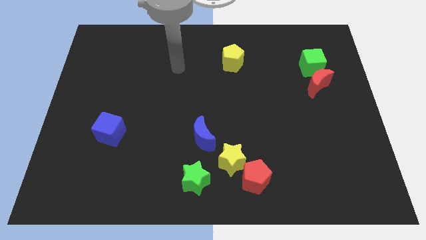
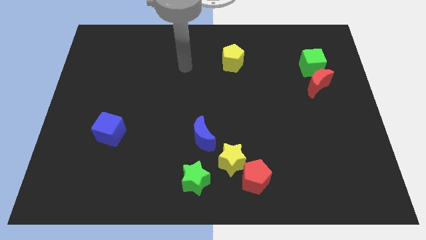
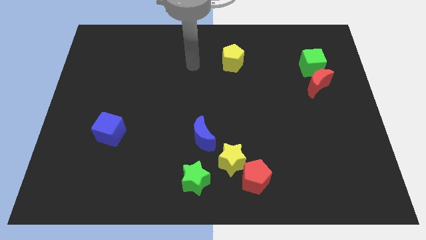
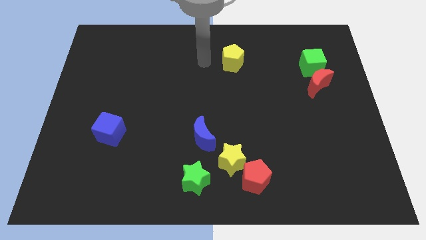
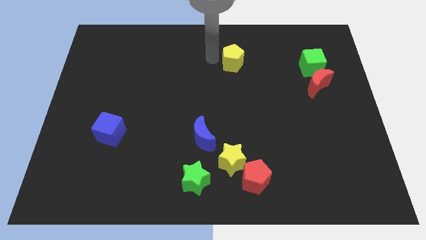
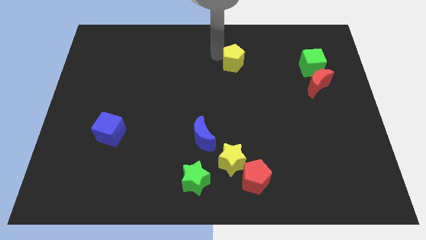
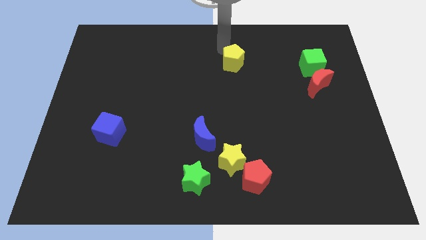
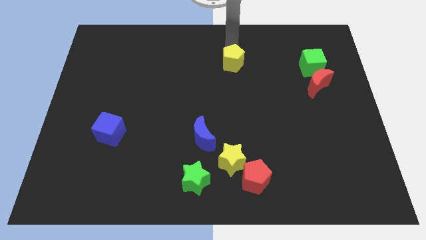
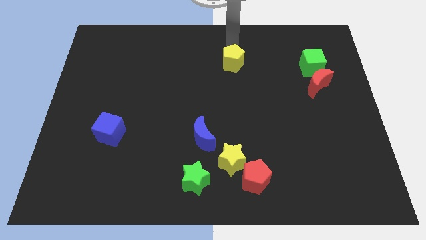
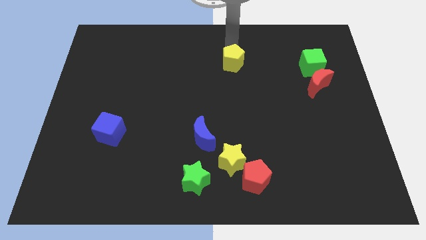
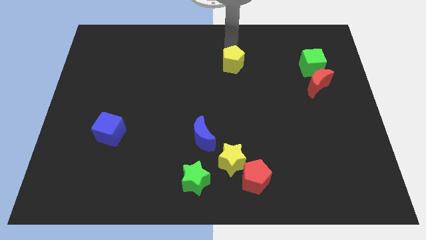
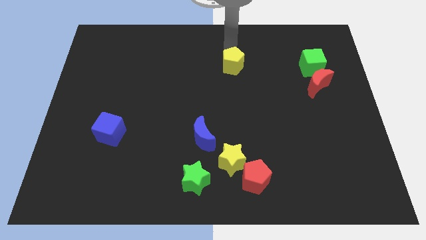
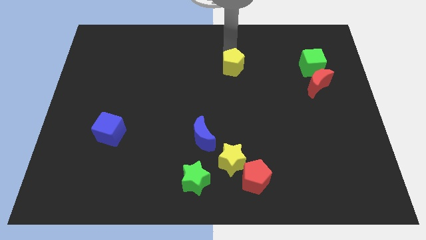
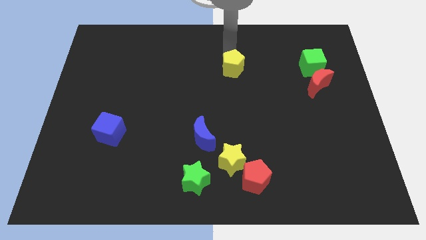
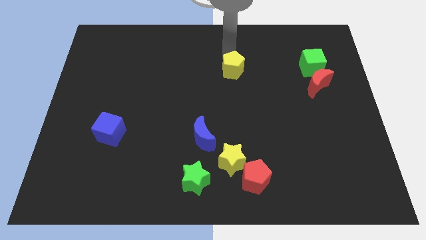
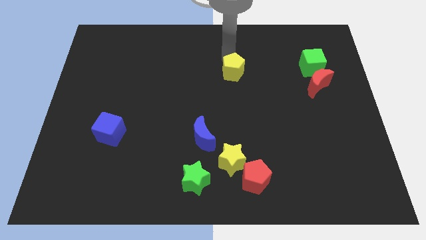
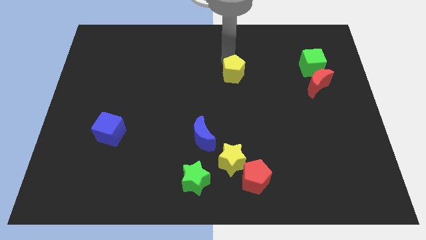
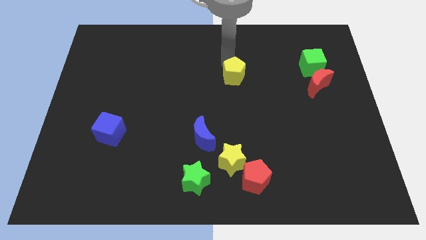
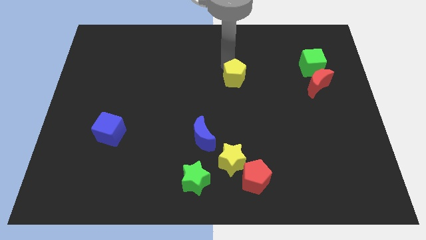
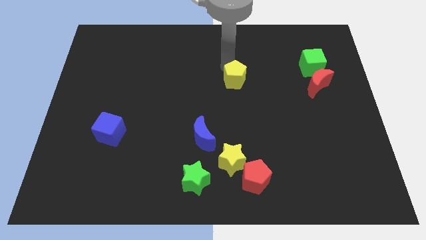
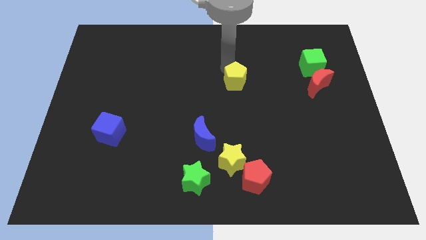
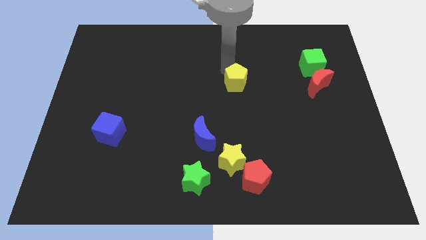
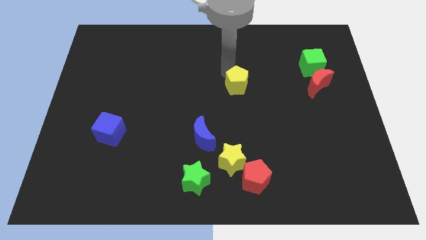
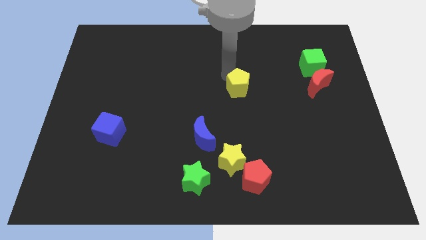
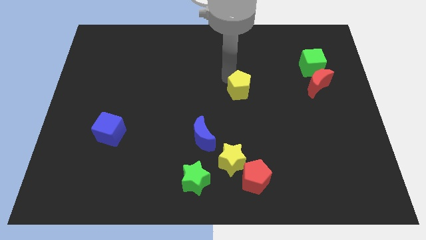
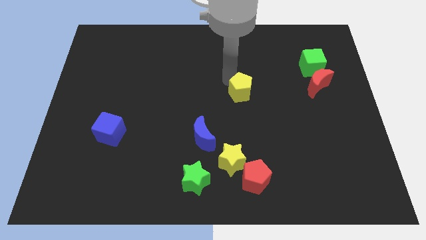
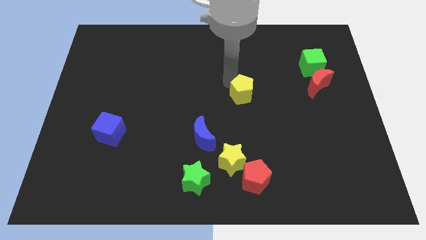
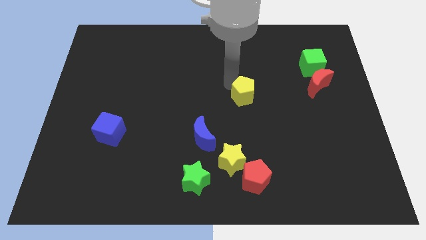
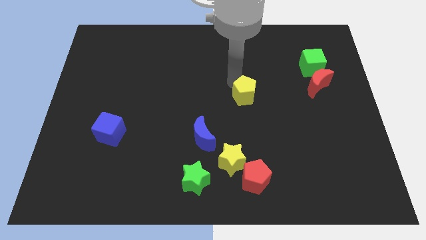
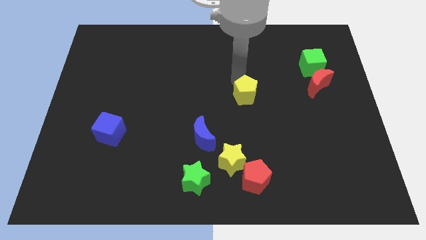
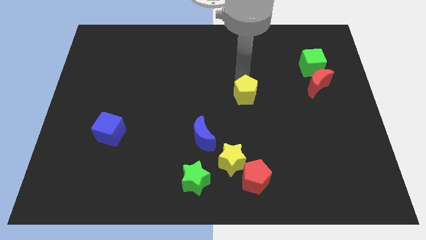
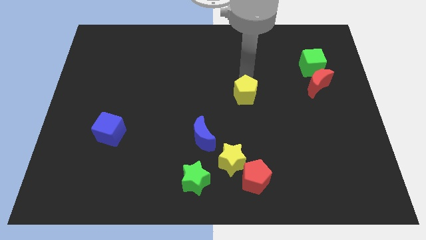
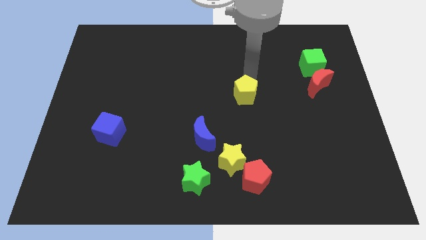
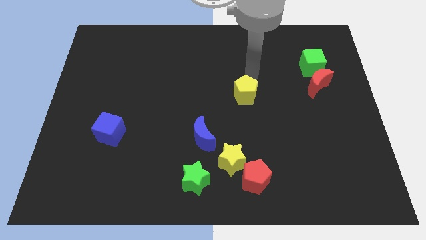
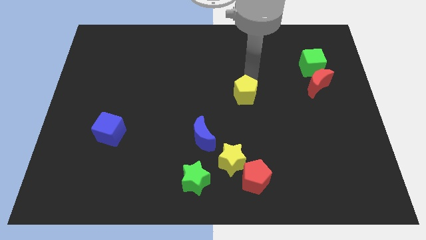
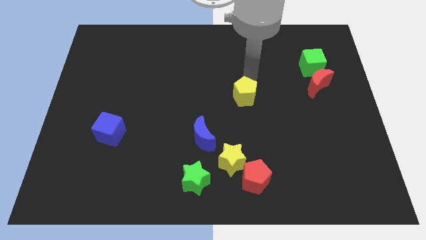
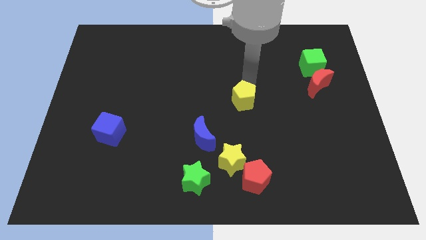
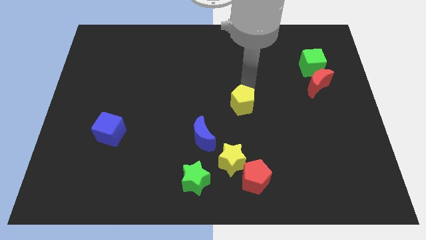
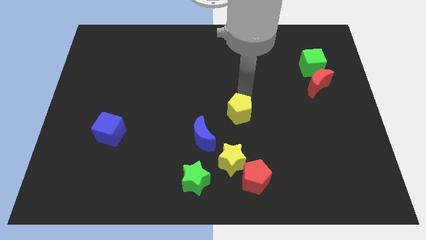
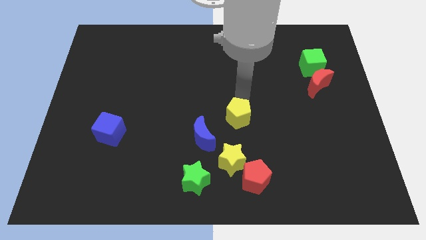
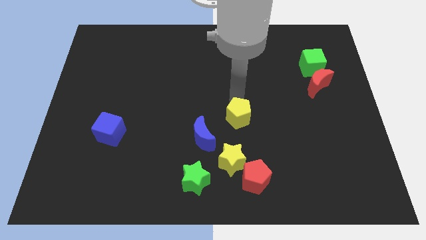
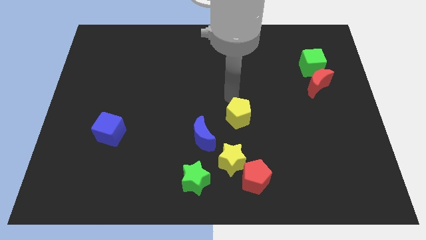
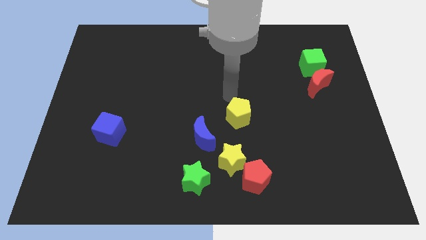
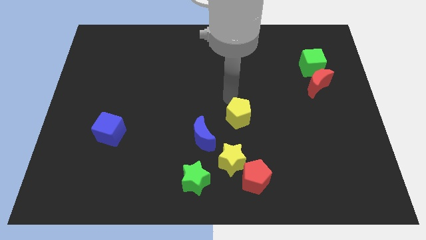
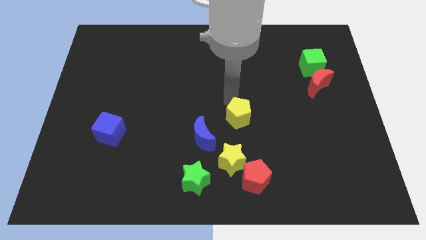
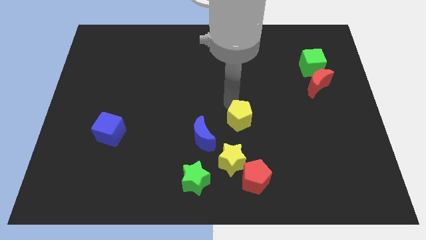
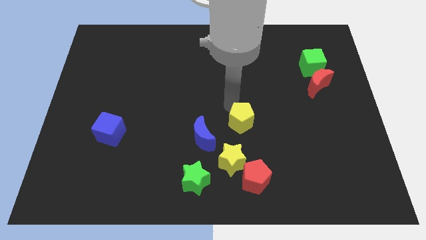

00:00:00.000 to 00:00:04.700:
put the yellow pentagon right of the blue moon

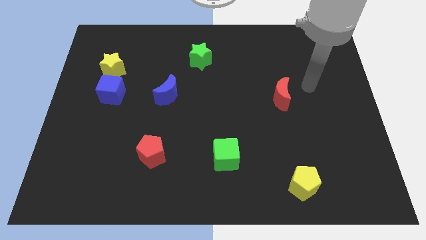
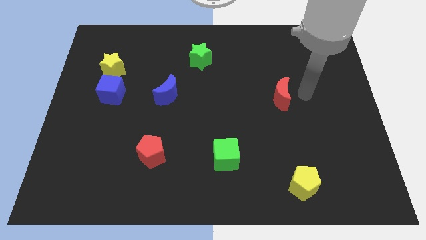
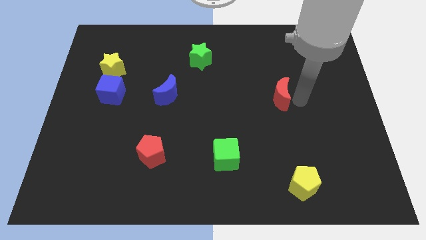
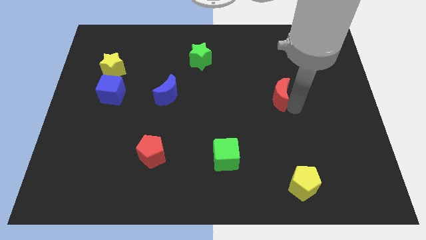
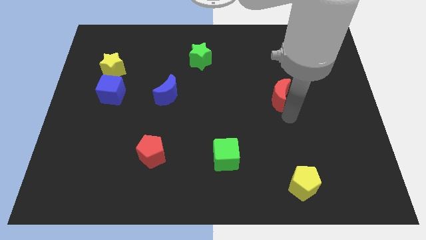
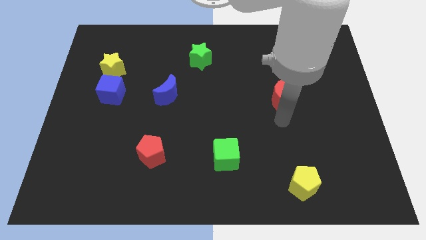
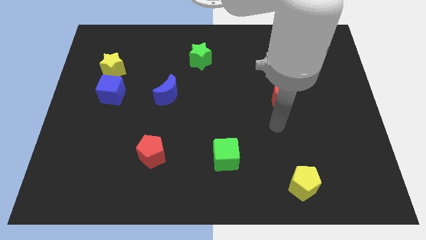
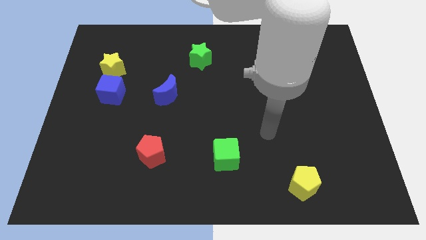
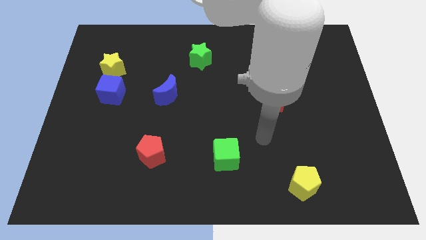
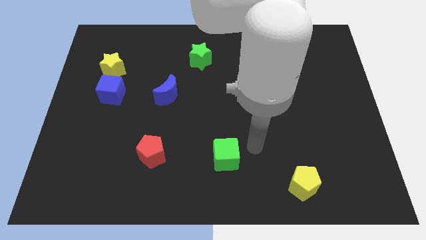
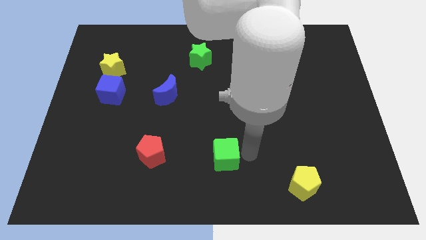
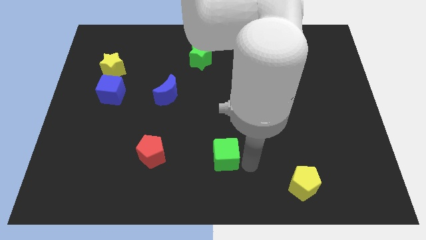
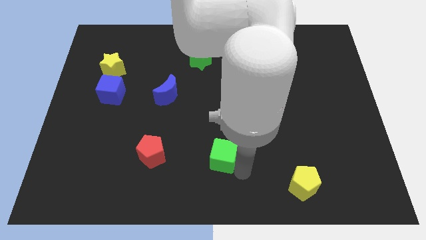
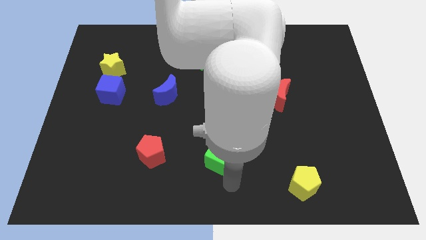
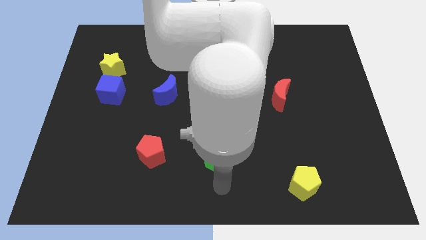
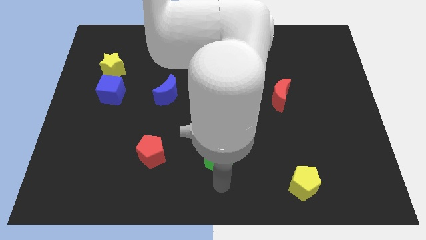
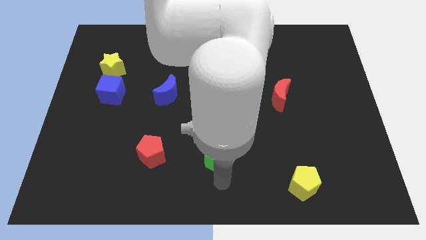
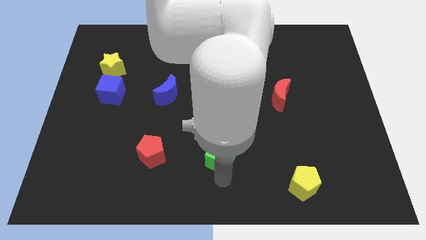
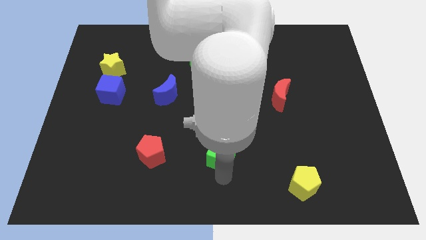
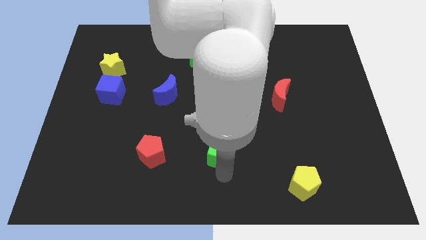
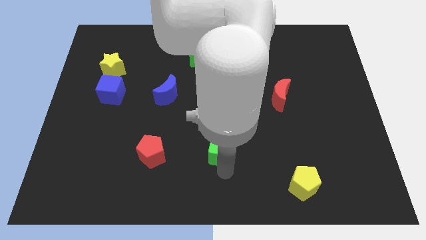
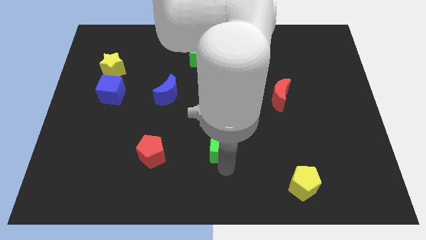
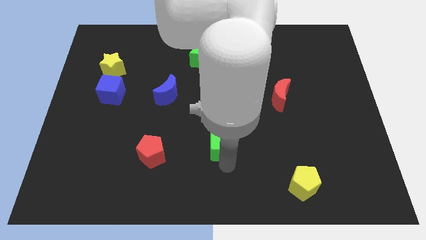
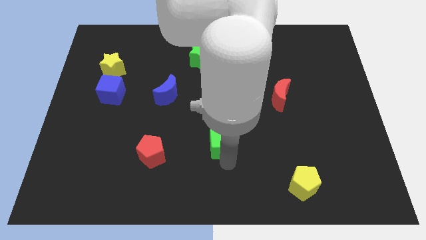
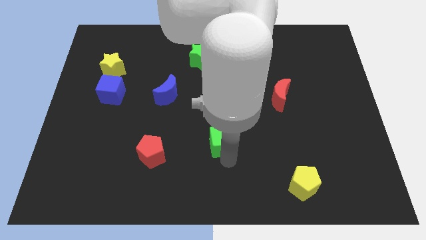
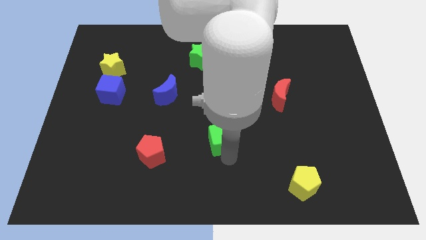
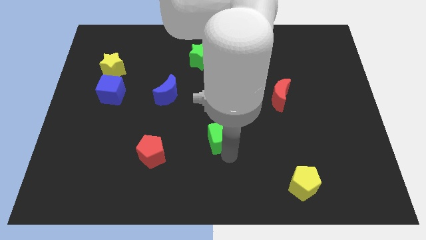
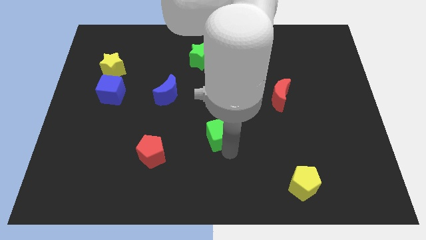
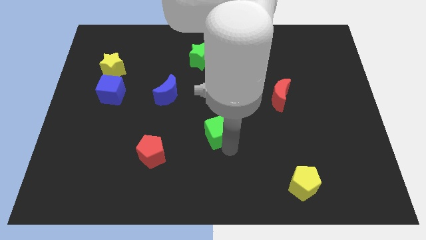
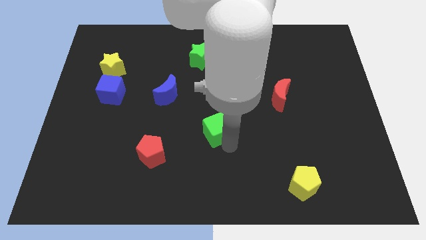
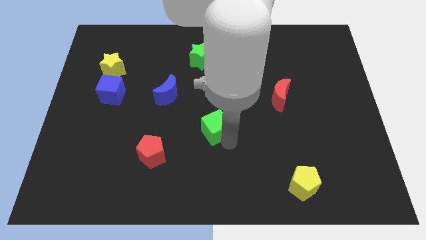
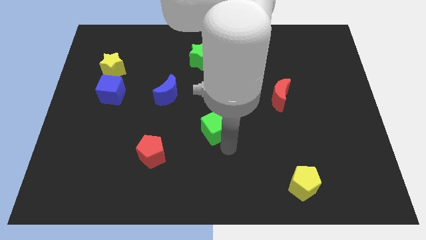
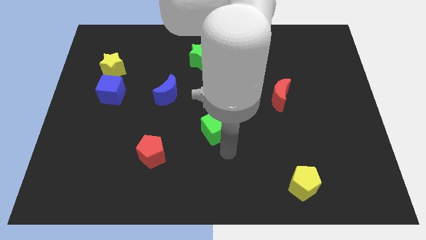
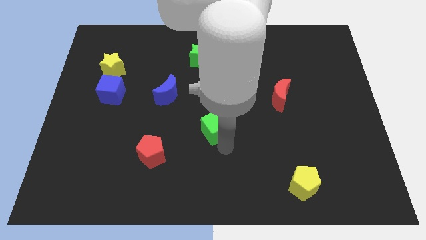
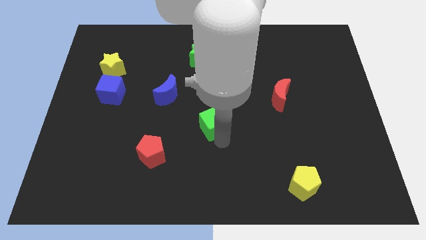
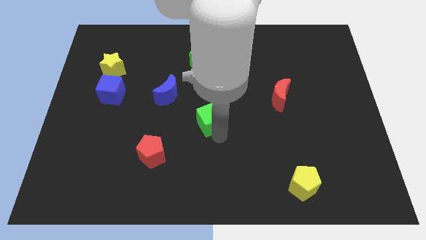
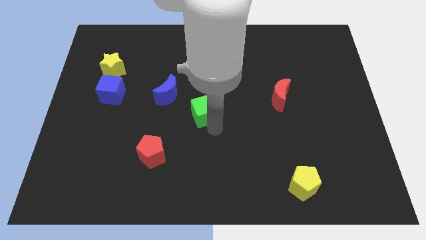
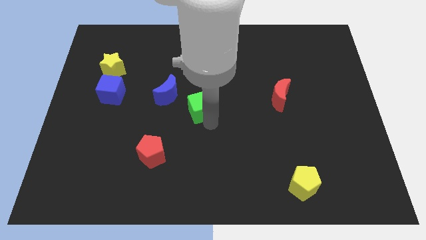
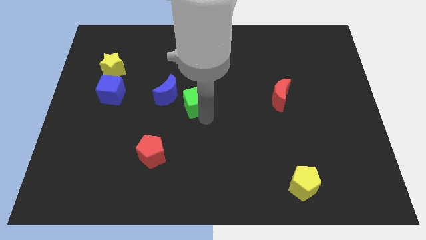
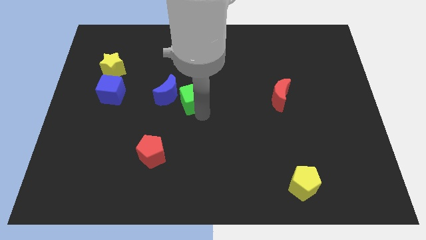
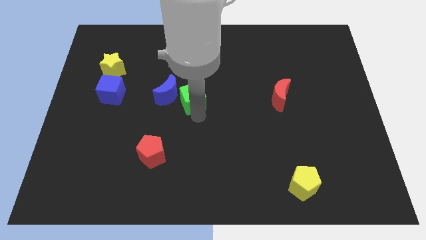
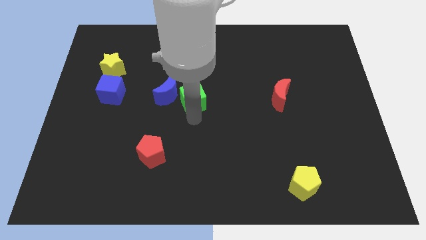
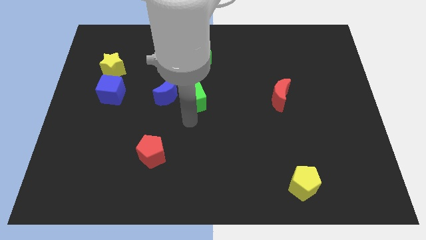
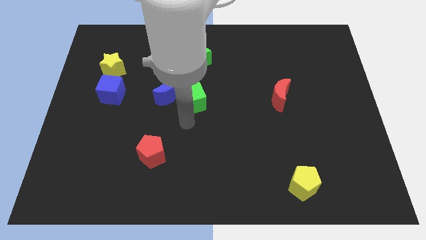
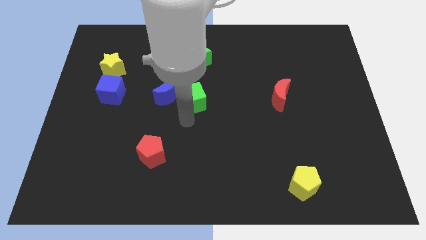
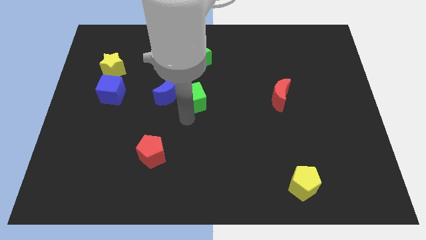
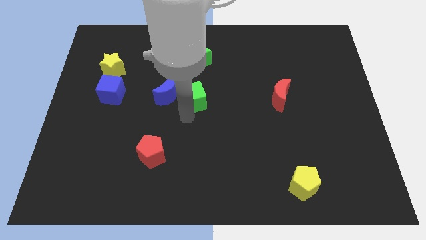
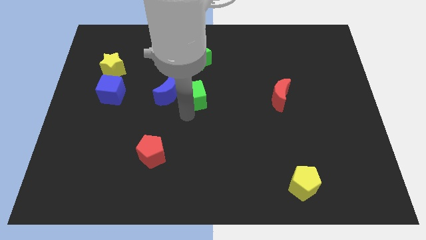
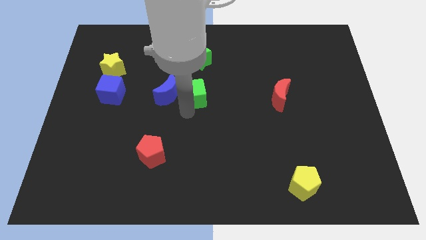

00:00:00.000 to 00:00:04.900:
push the green cube to the top right of the blue moon
